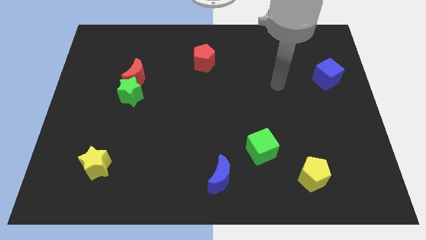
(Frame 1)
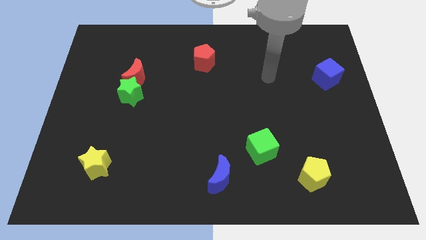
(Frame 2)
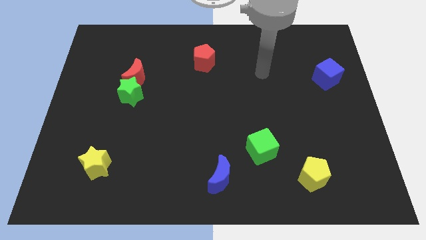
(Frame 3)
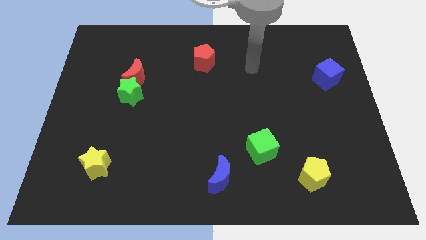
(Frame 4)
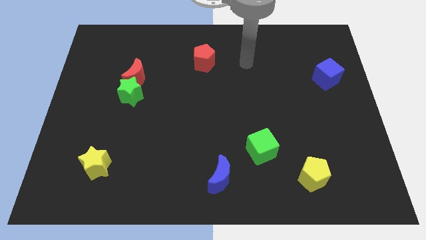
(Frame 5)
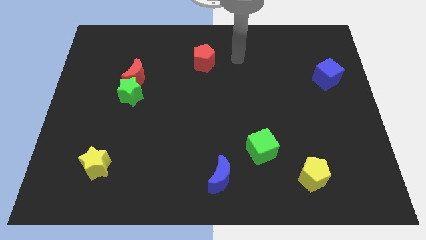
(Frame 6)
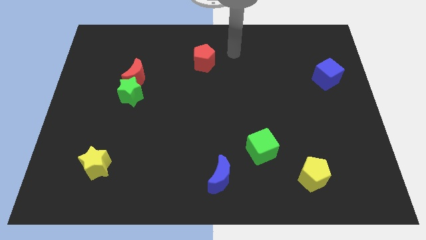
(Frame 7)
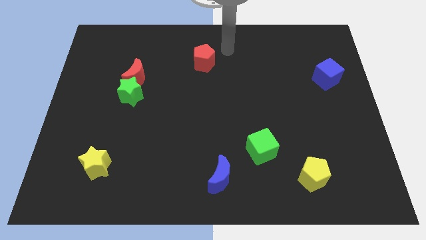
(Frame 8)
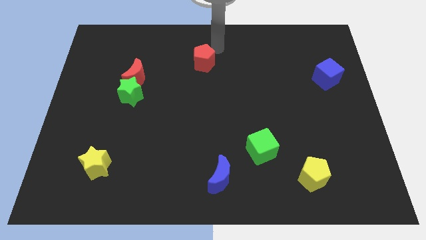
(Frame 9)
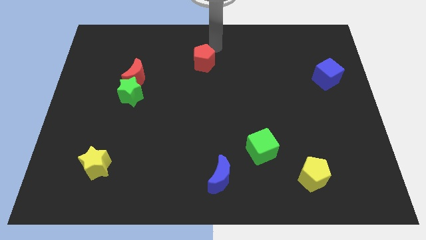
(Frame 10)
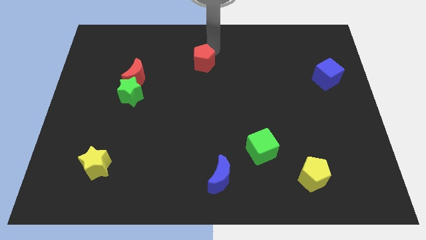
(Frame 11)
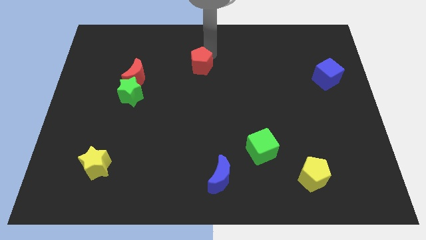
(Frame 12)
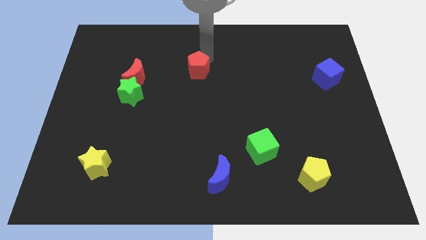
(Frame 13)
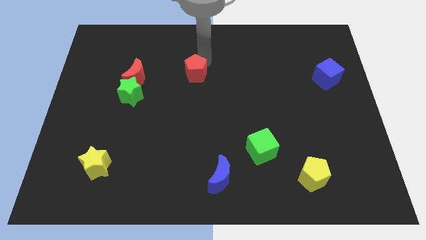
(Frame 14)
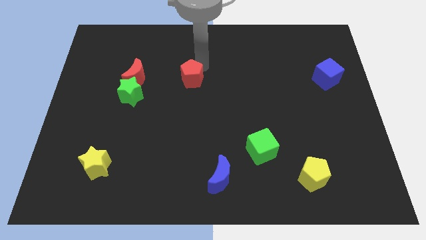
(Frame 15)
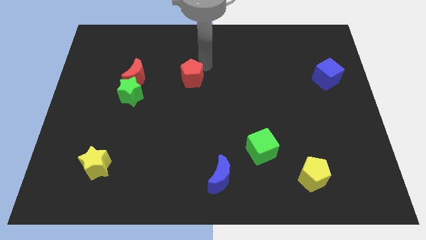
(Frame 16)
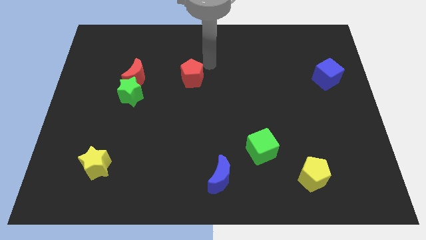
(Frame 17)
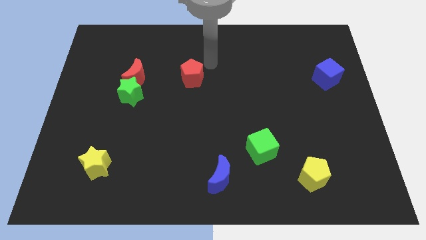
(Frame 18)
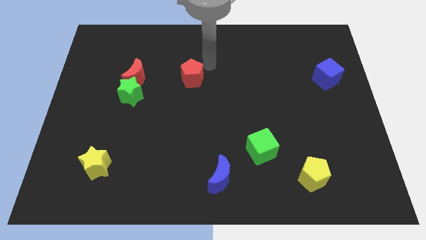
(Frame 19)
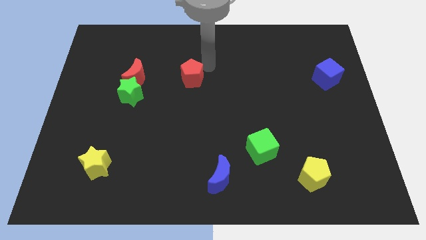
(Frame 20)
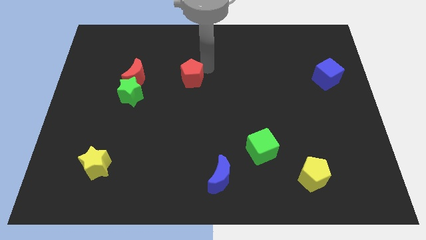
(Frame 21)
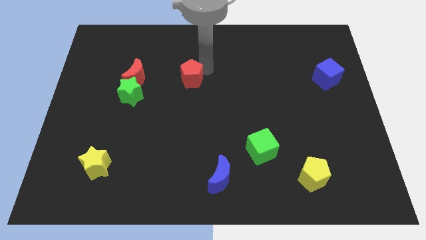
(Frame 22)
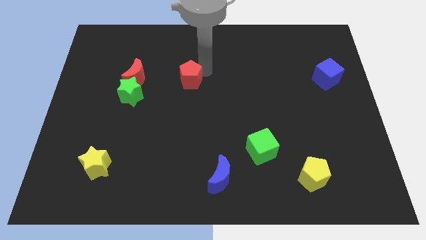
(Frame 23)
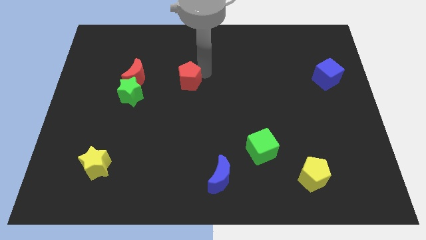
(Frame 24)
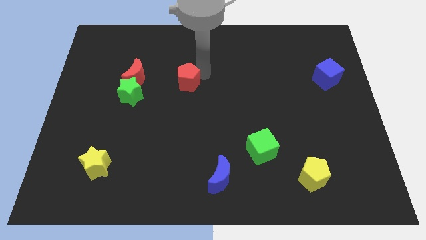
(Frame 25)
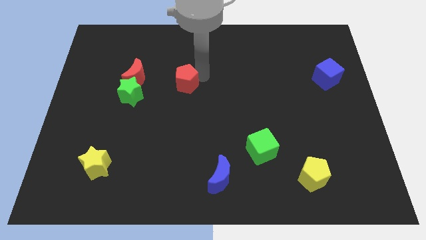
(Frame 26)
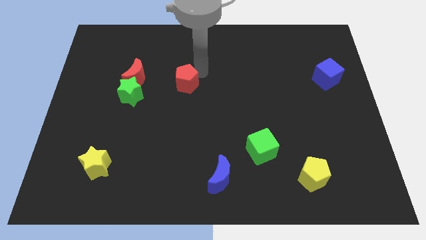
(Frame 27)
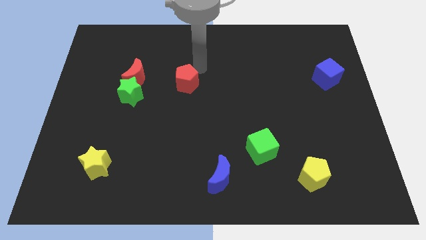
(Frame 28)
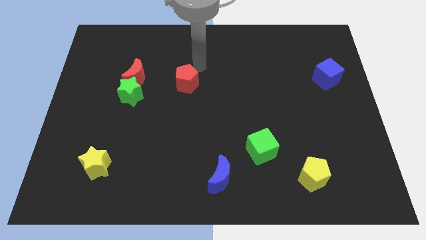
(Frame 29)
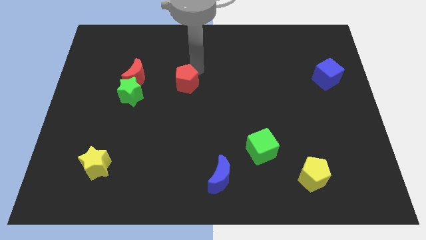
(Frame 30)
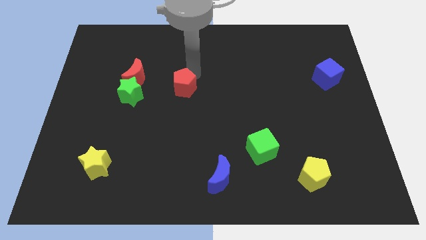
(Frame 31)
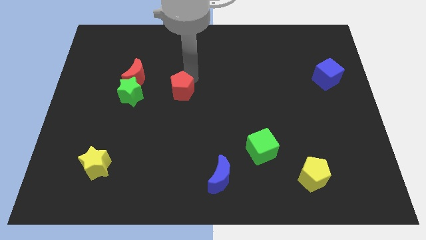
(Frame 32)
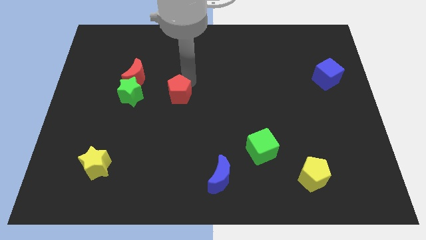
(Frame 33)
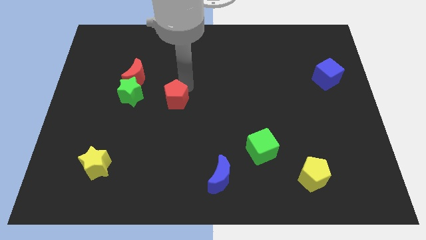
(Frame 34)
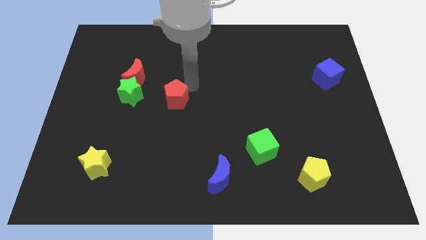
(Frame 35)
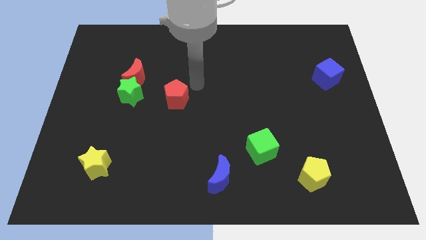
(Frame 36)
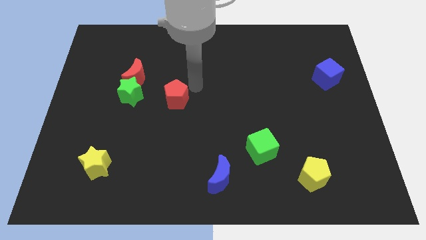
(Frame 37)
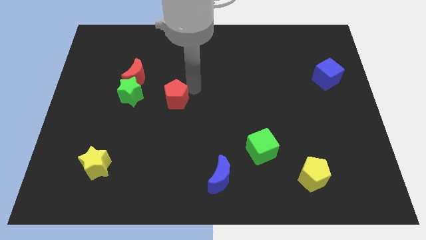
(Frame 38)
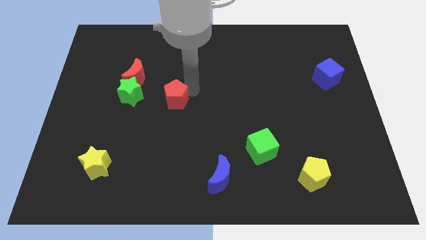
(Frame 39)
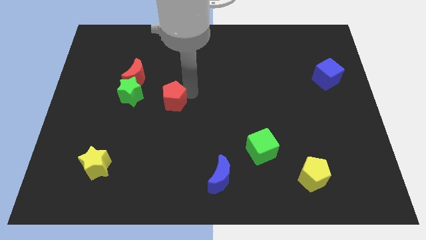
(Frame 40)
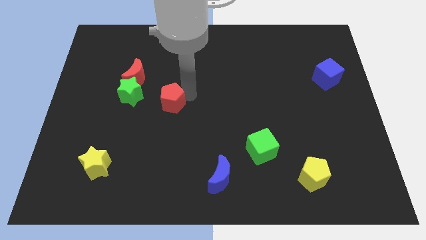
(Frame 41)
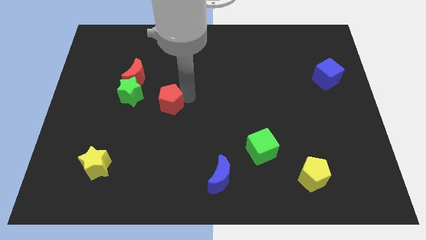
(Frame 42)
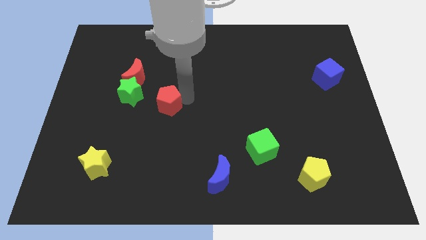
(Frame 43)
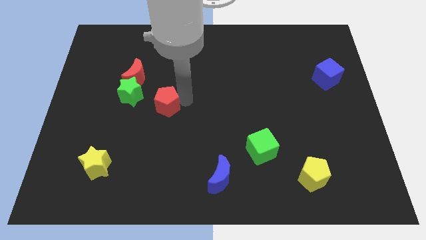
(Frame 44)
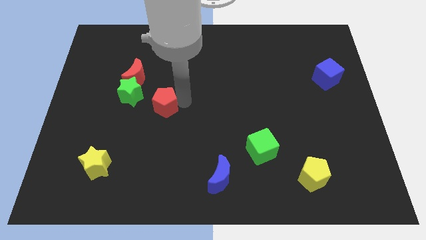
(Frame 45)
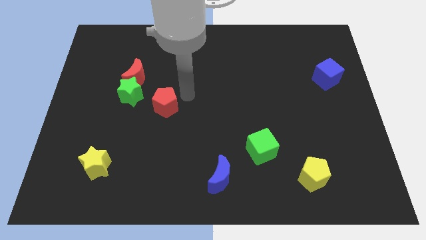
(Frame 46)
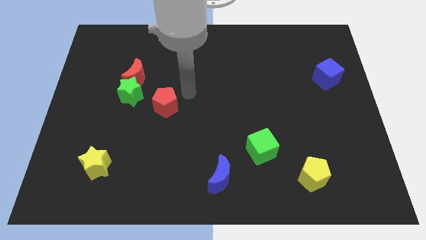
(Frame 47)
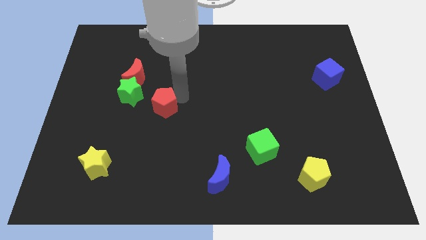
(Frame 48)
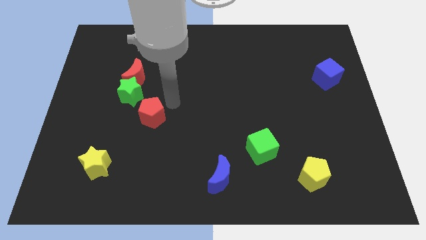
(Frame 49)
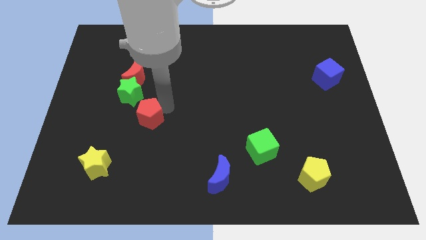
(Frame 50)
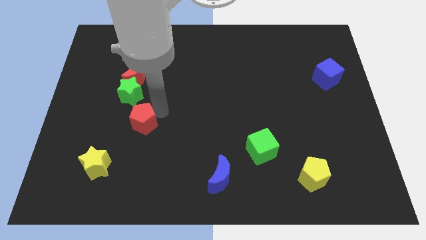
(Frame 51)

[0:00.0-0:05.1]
slide the red pentagon below the green star

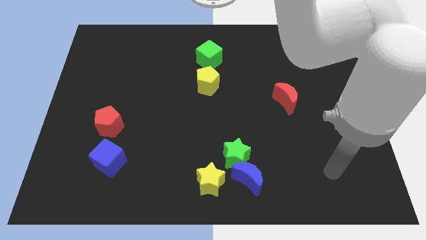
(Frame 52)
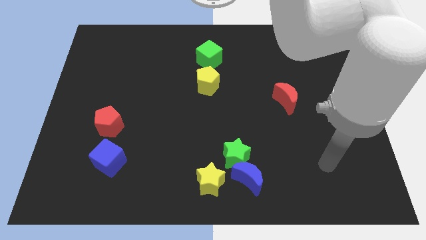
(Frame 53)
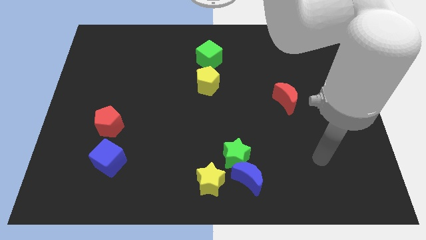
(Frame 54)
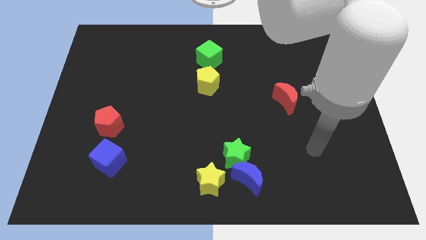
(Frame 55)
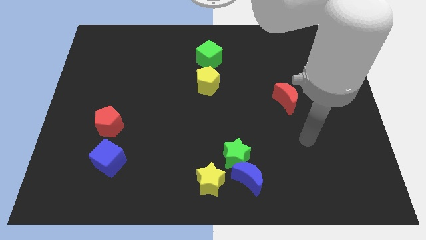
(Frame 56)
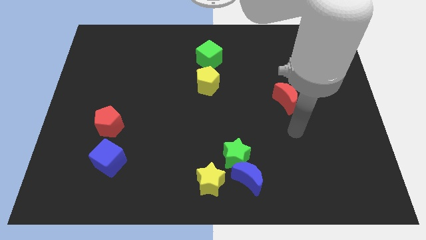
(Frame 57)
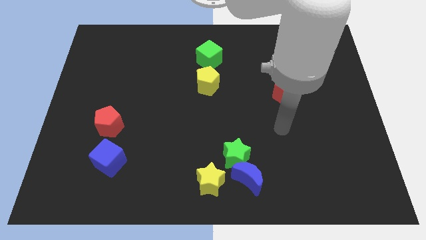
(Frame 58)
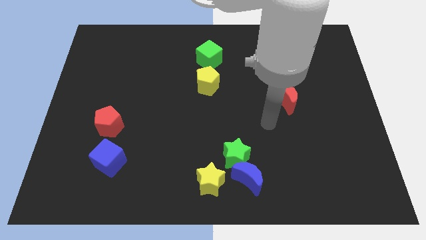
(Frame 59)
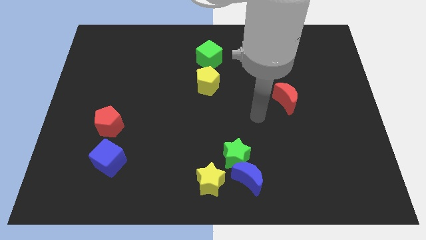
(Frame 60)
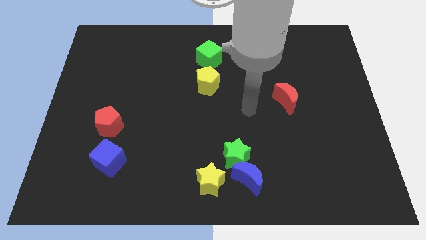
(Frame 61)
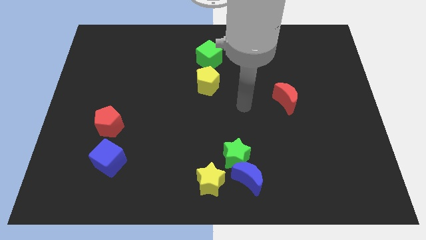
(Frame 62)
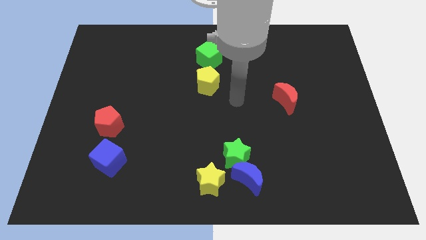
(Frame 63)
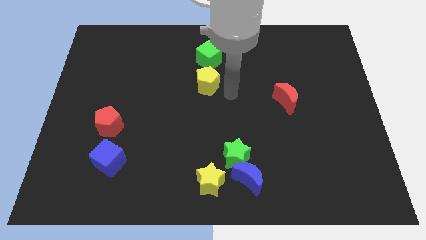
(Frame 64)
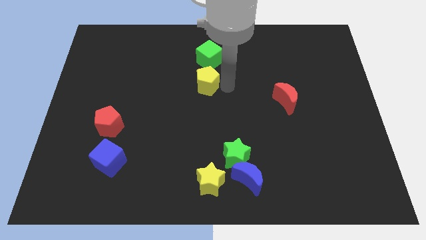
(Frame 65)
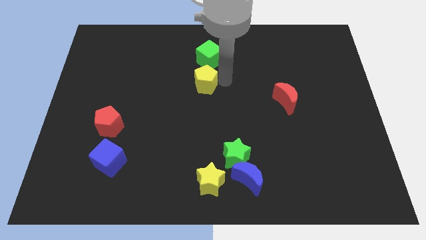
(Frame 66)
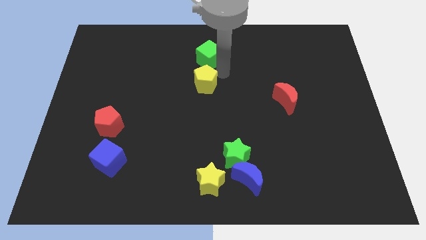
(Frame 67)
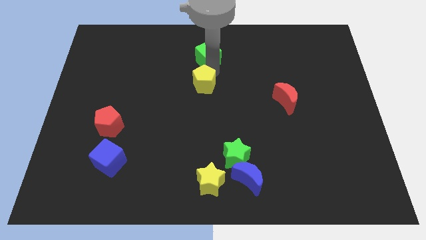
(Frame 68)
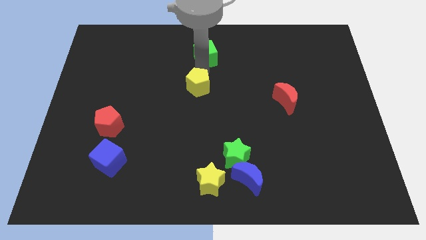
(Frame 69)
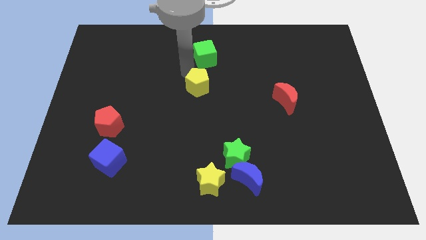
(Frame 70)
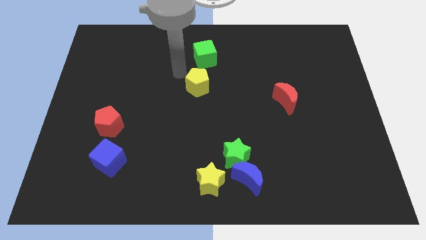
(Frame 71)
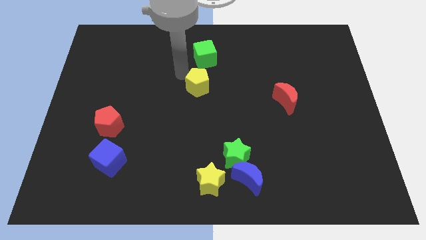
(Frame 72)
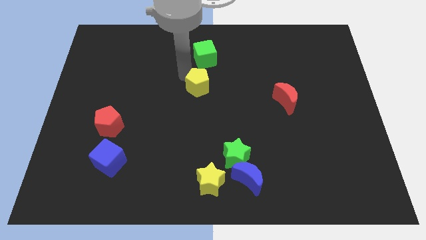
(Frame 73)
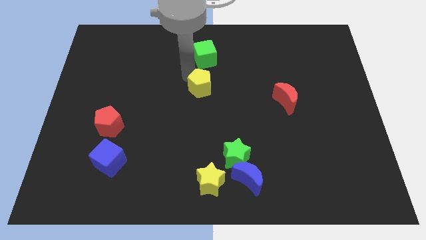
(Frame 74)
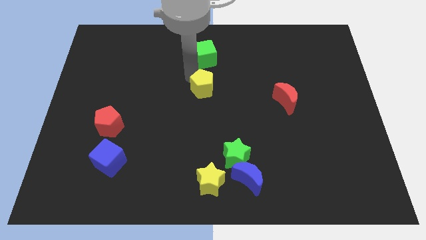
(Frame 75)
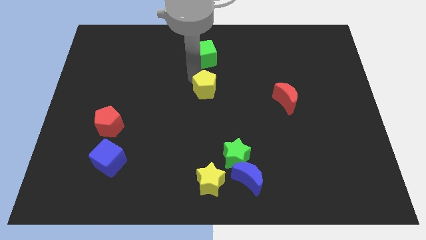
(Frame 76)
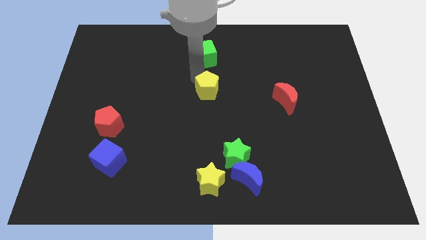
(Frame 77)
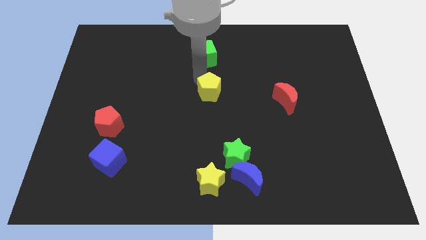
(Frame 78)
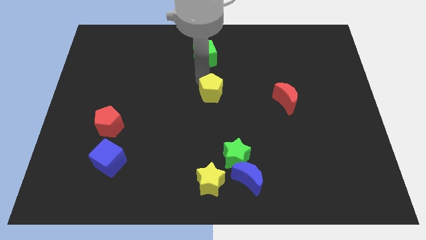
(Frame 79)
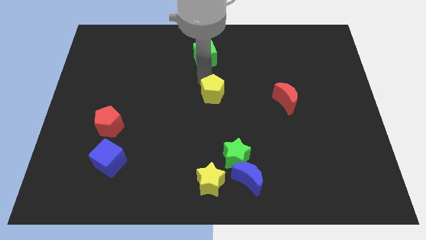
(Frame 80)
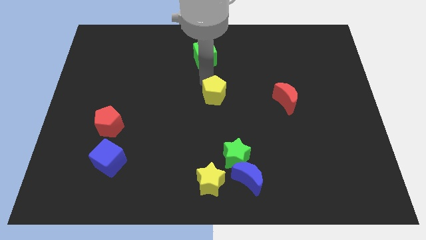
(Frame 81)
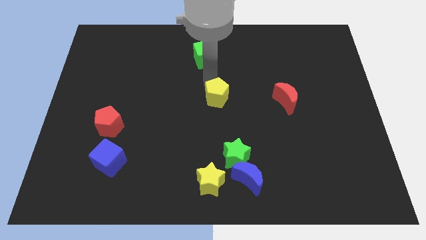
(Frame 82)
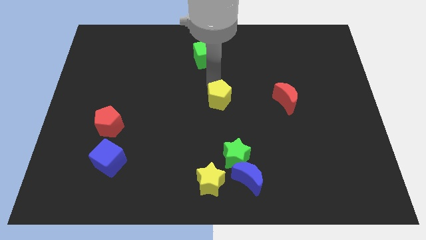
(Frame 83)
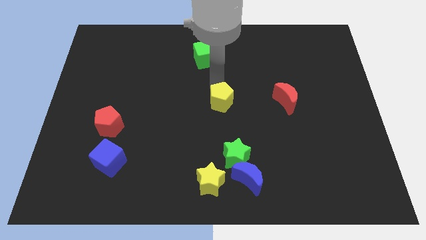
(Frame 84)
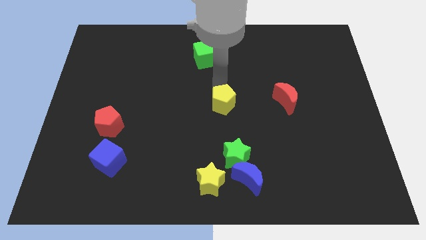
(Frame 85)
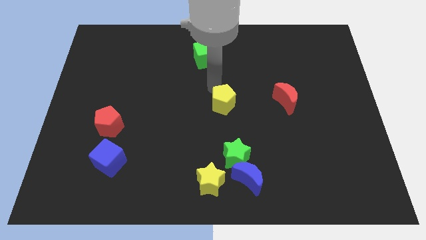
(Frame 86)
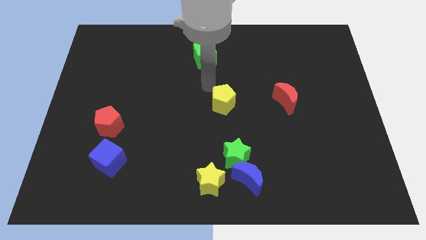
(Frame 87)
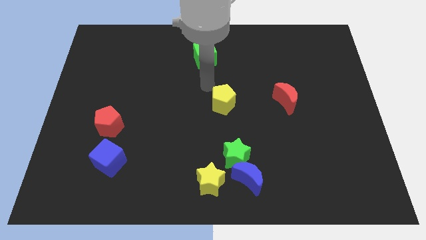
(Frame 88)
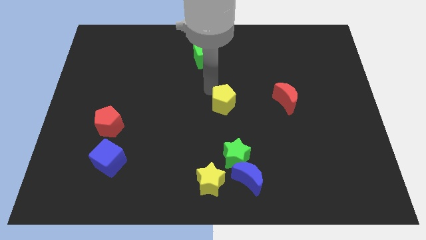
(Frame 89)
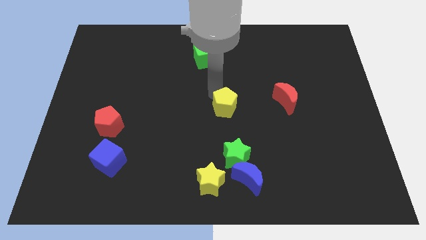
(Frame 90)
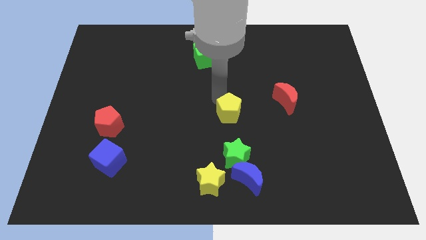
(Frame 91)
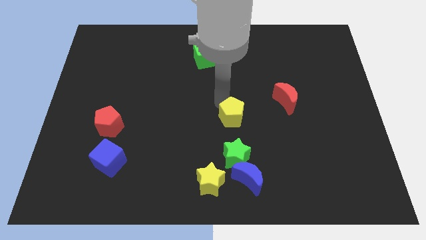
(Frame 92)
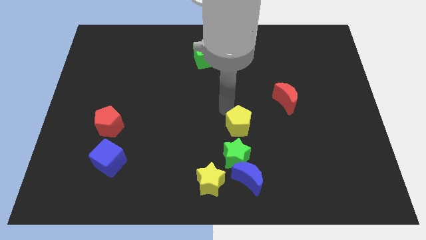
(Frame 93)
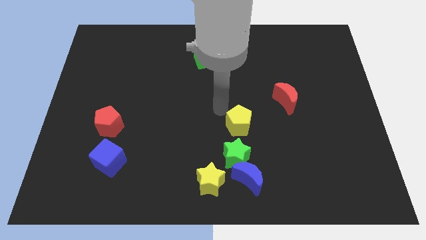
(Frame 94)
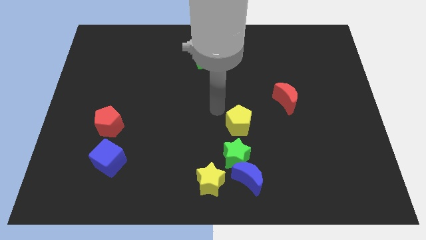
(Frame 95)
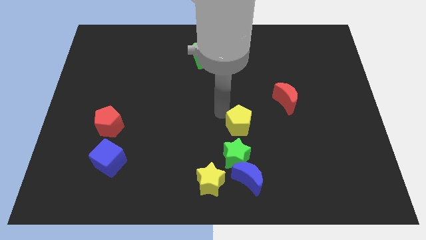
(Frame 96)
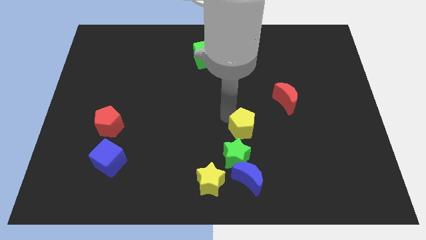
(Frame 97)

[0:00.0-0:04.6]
move the yellow pentagon to the top right of the green star
